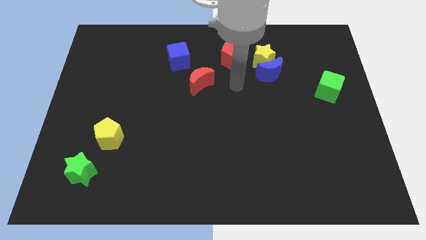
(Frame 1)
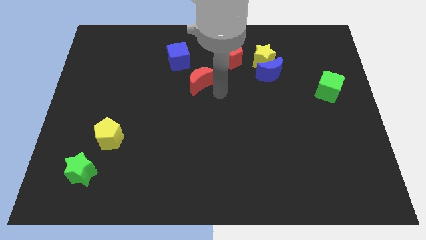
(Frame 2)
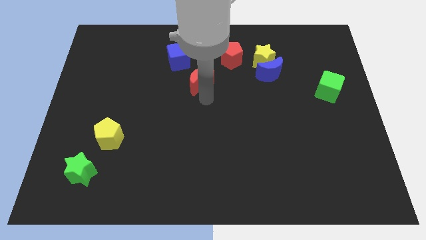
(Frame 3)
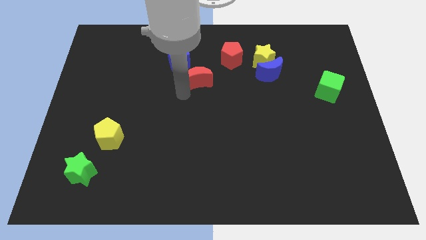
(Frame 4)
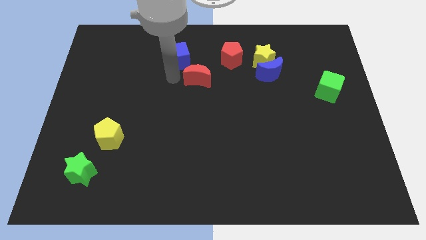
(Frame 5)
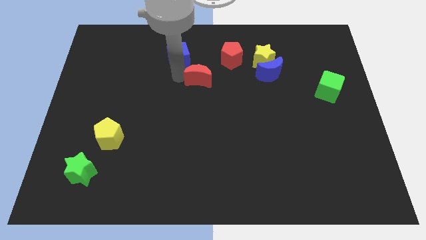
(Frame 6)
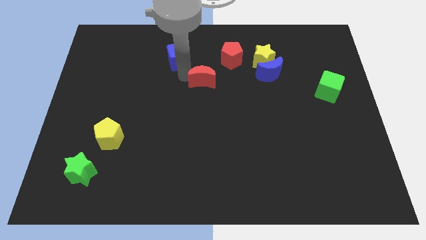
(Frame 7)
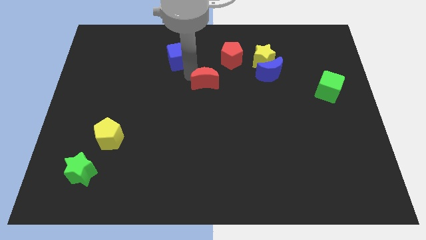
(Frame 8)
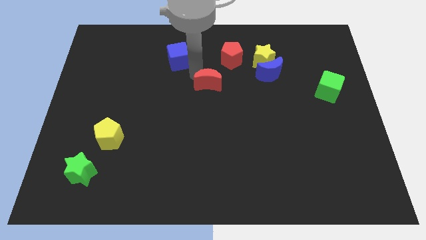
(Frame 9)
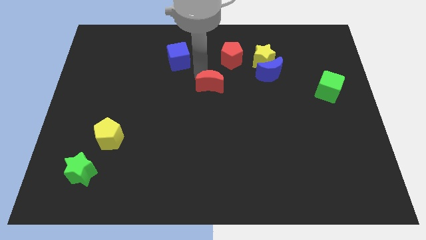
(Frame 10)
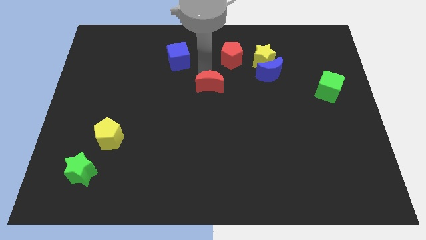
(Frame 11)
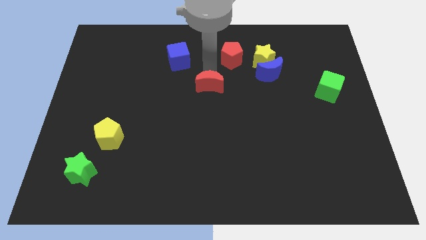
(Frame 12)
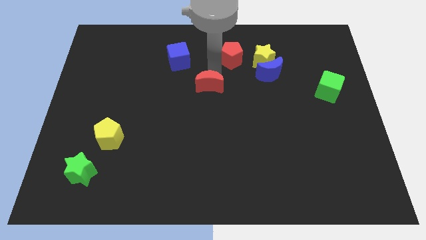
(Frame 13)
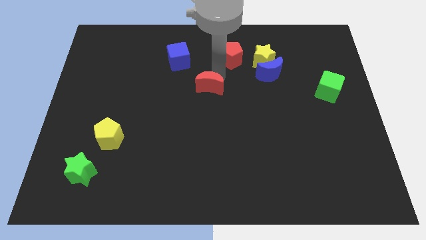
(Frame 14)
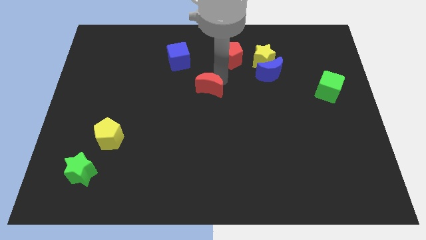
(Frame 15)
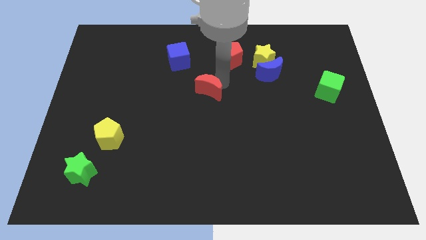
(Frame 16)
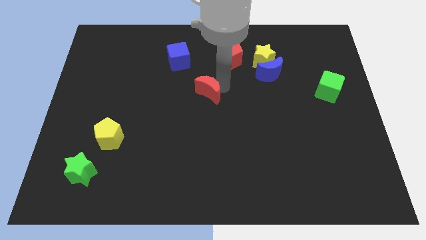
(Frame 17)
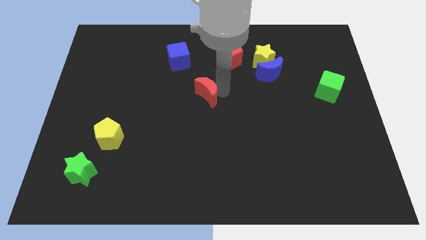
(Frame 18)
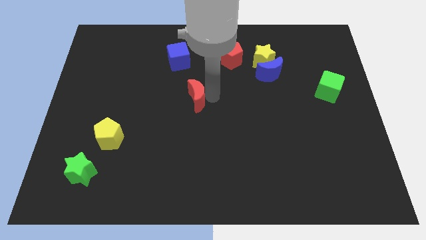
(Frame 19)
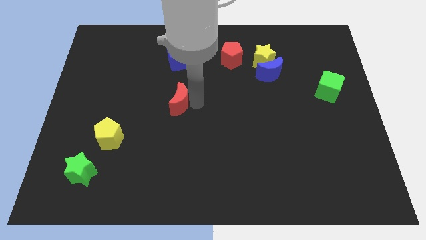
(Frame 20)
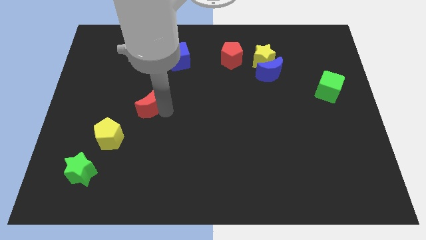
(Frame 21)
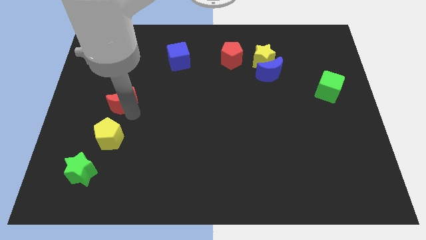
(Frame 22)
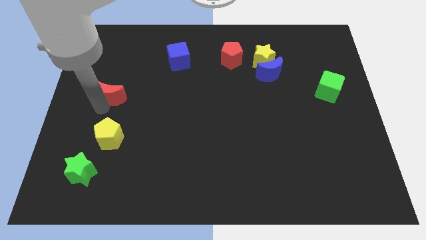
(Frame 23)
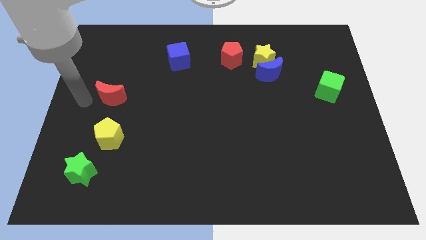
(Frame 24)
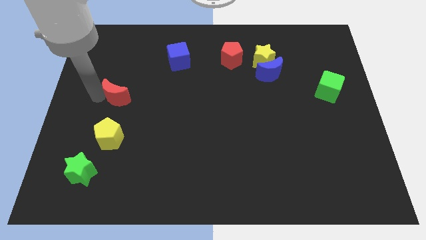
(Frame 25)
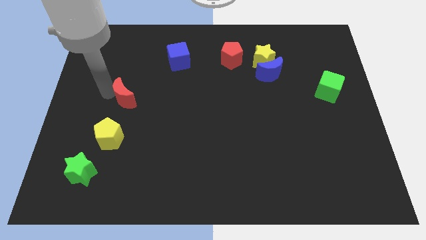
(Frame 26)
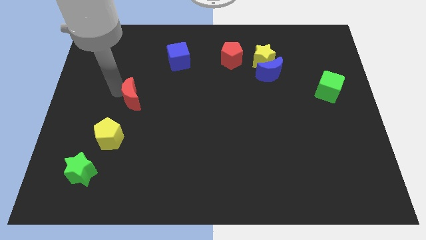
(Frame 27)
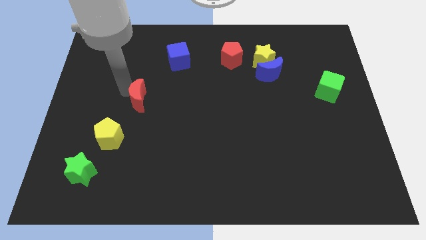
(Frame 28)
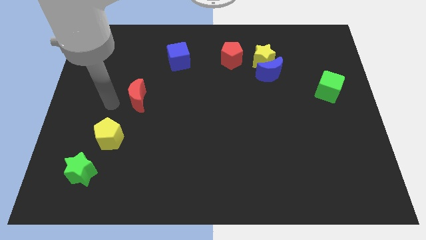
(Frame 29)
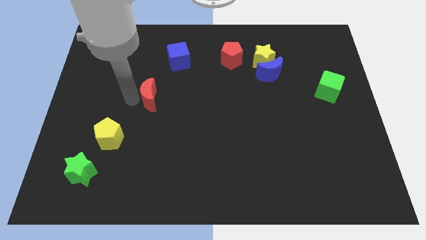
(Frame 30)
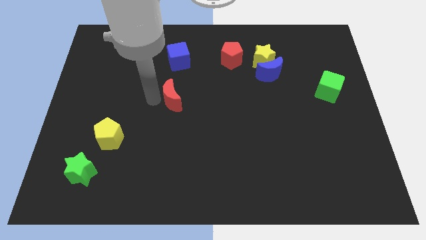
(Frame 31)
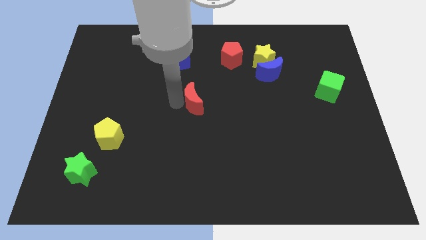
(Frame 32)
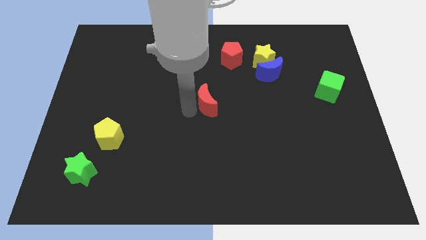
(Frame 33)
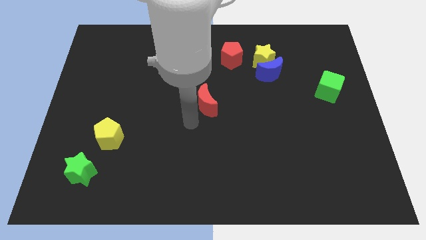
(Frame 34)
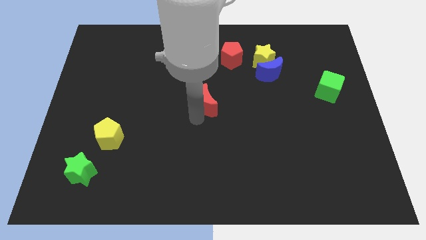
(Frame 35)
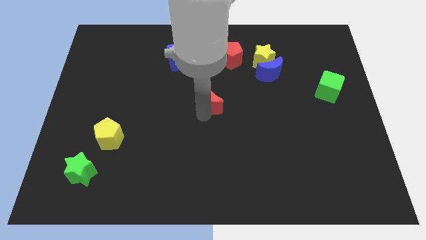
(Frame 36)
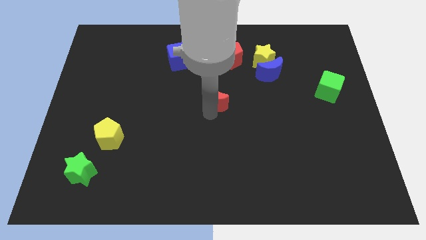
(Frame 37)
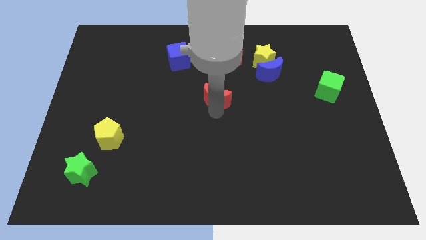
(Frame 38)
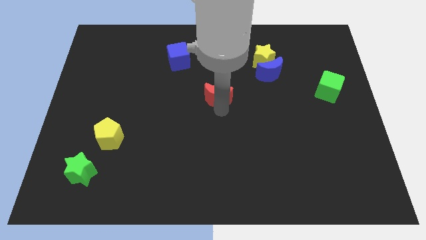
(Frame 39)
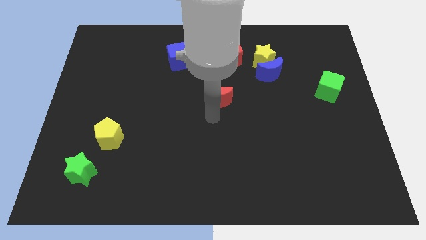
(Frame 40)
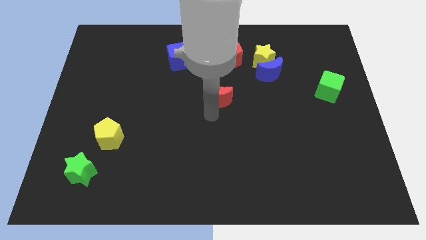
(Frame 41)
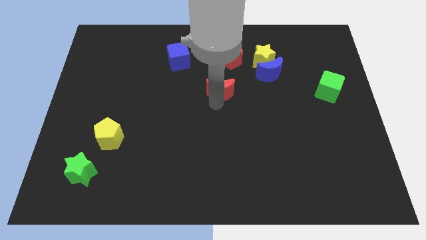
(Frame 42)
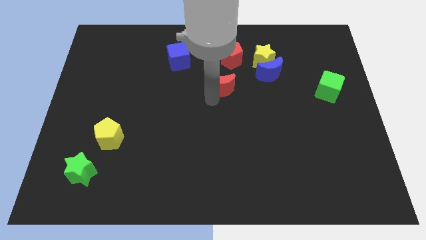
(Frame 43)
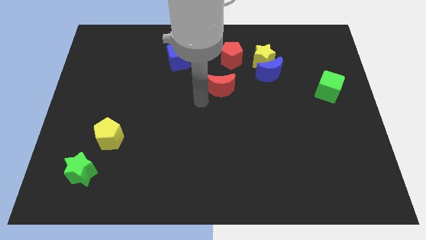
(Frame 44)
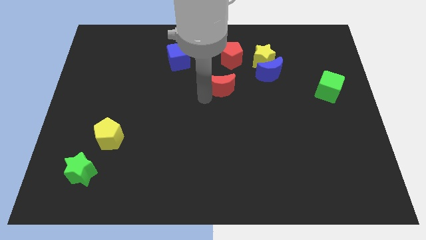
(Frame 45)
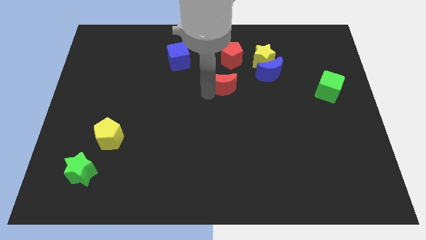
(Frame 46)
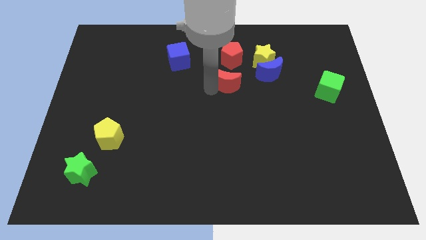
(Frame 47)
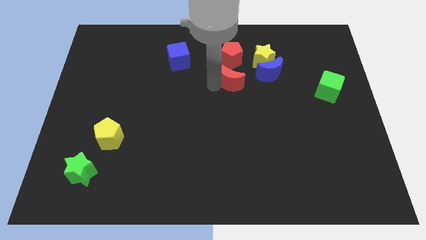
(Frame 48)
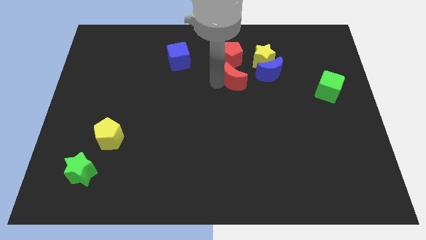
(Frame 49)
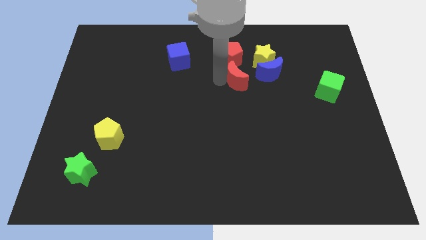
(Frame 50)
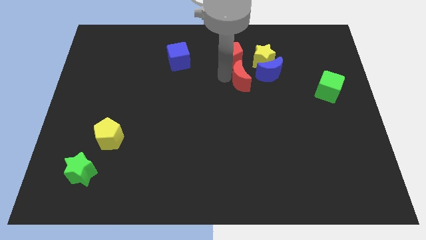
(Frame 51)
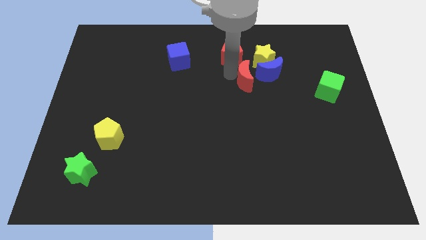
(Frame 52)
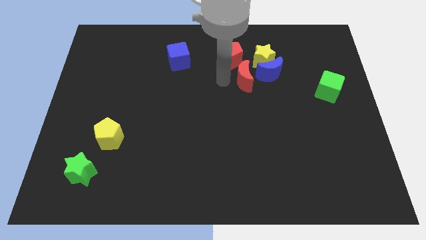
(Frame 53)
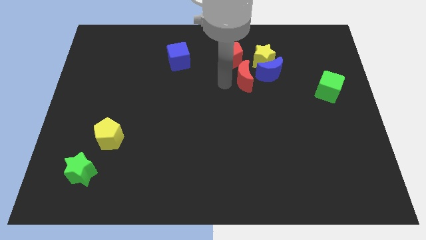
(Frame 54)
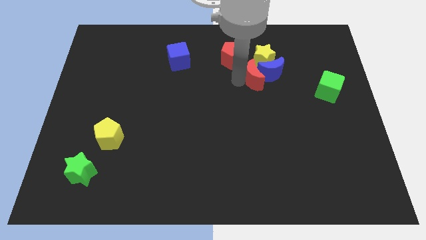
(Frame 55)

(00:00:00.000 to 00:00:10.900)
push the red moon close to the blue moon

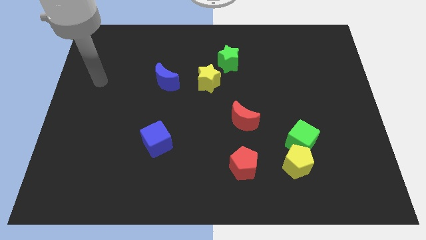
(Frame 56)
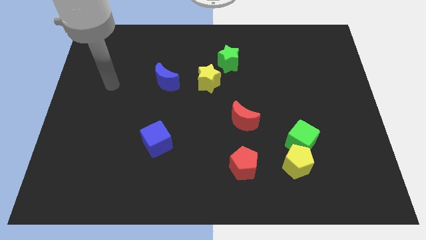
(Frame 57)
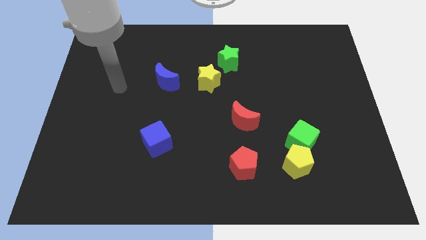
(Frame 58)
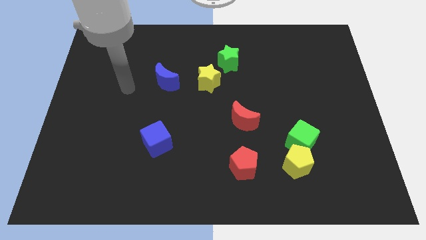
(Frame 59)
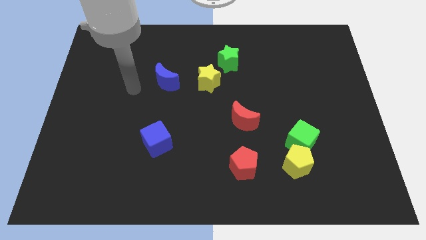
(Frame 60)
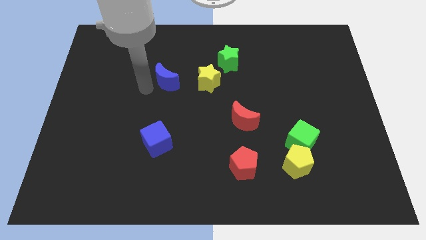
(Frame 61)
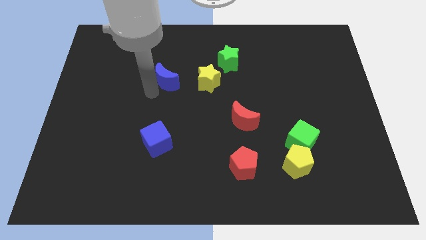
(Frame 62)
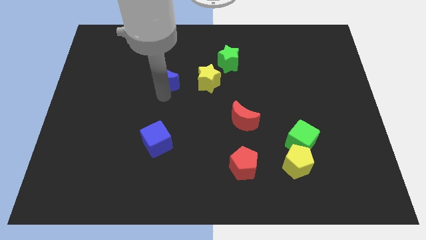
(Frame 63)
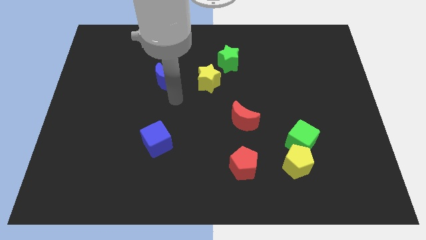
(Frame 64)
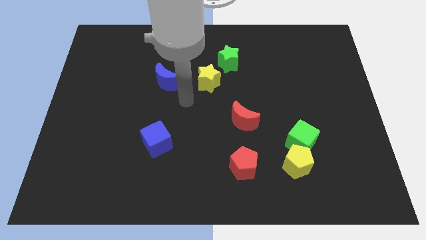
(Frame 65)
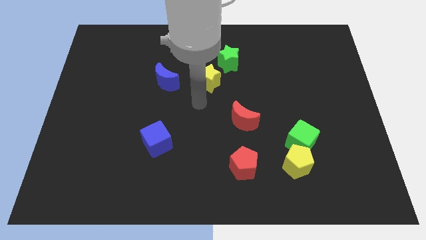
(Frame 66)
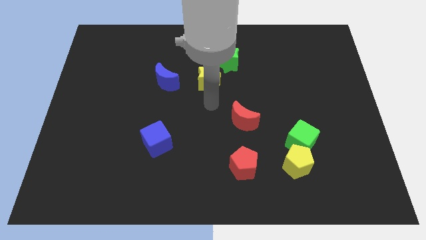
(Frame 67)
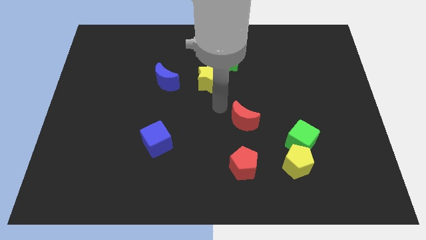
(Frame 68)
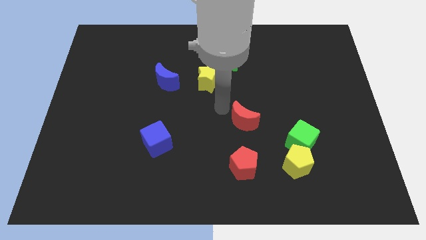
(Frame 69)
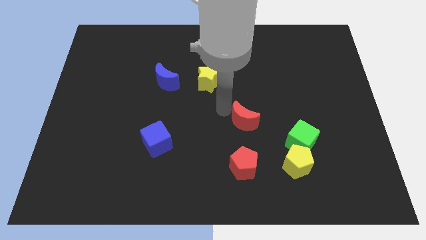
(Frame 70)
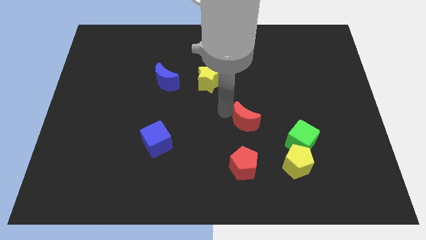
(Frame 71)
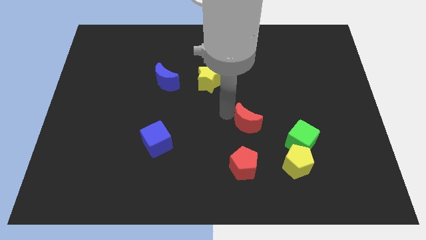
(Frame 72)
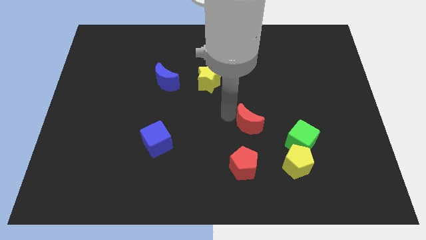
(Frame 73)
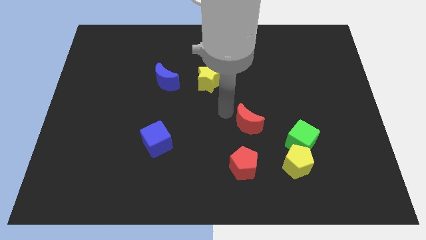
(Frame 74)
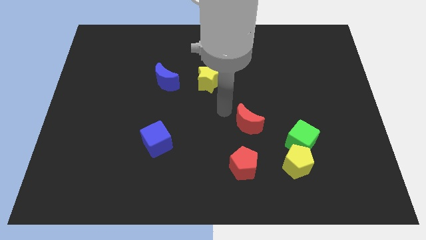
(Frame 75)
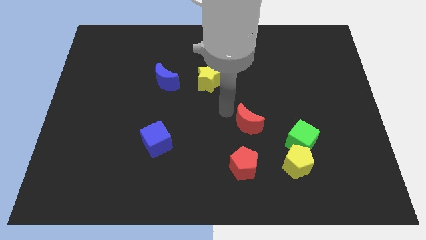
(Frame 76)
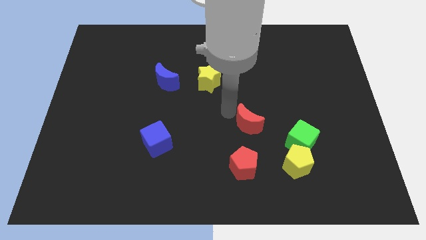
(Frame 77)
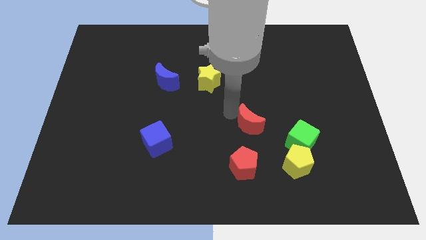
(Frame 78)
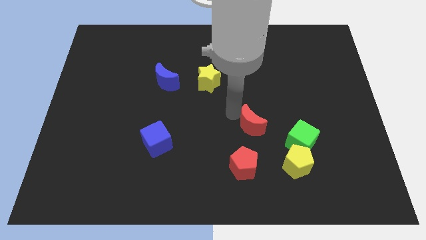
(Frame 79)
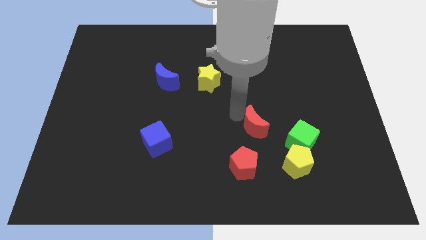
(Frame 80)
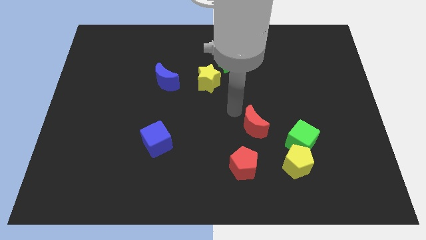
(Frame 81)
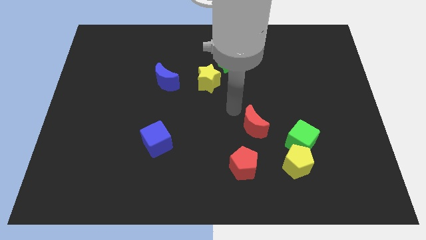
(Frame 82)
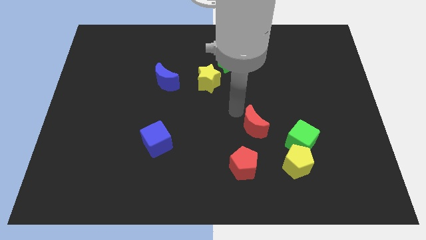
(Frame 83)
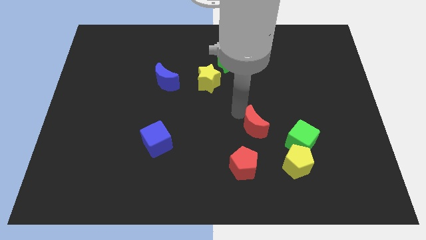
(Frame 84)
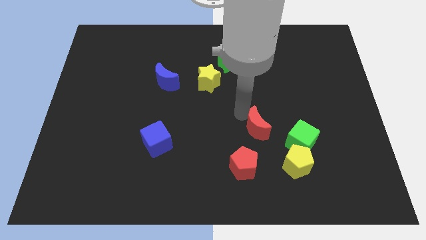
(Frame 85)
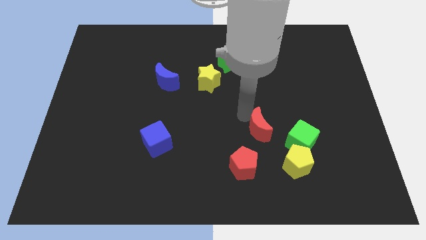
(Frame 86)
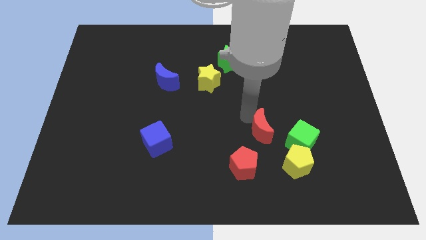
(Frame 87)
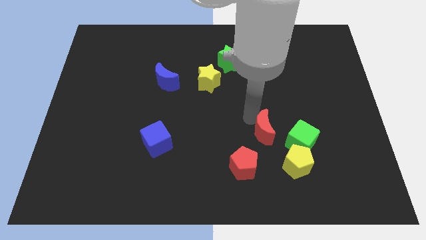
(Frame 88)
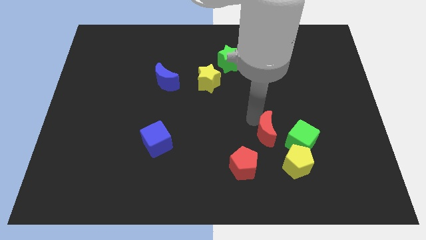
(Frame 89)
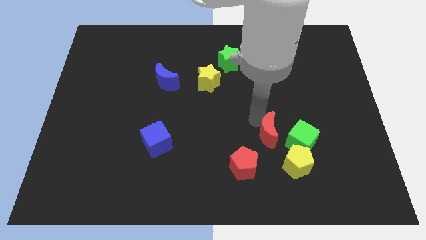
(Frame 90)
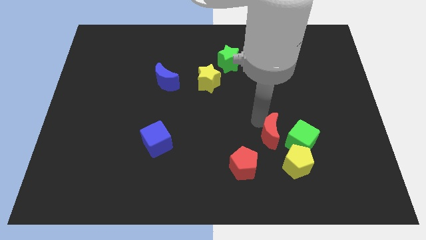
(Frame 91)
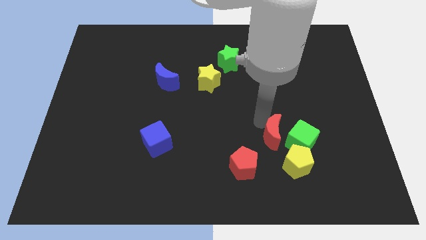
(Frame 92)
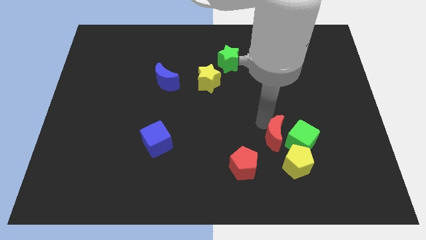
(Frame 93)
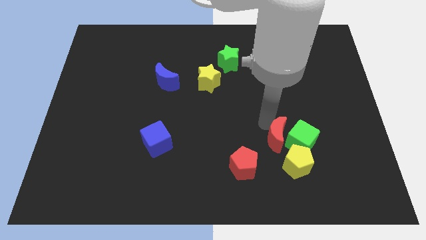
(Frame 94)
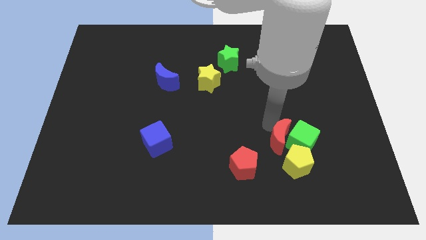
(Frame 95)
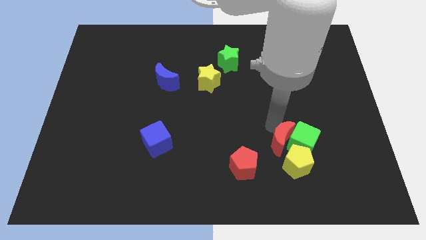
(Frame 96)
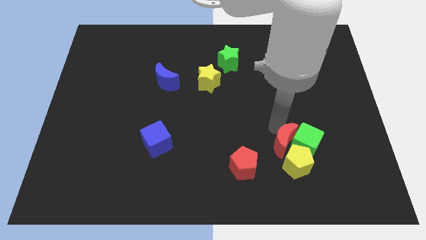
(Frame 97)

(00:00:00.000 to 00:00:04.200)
push the red moon to the yellow pentagon
